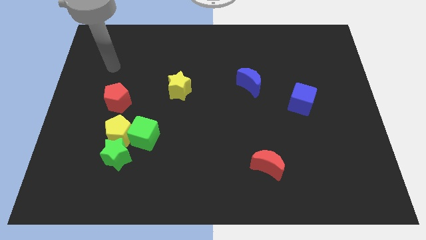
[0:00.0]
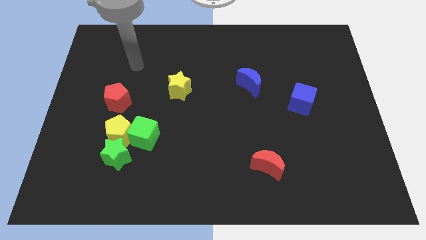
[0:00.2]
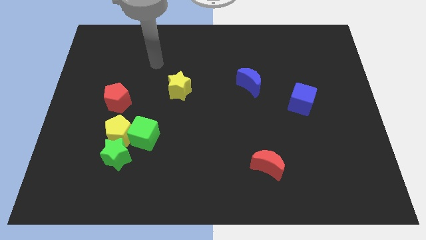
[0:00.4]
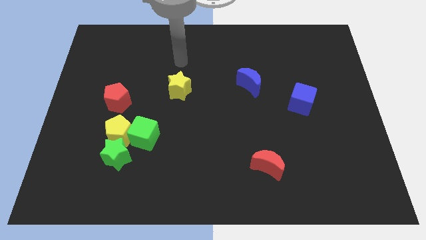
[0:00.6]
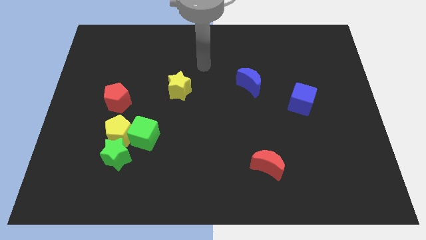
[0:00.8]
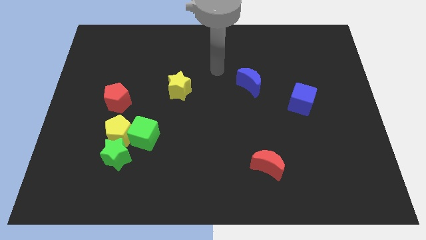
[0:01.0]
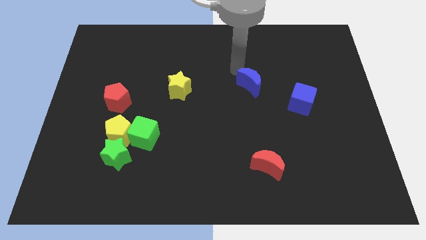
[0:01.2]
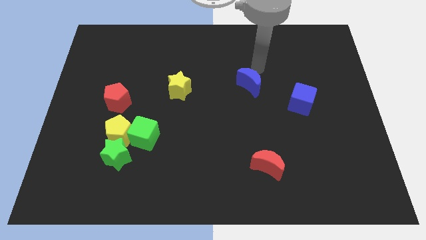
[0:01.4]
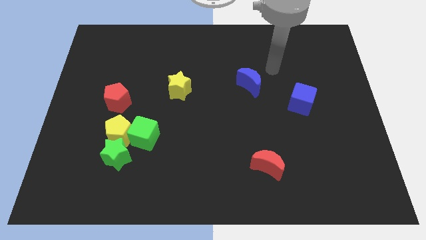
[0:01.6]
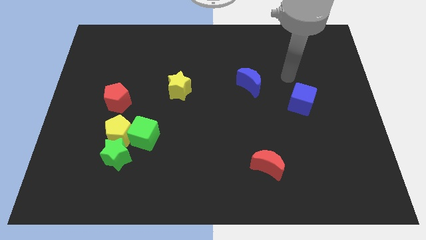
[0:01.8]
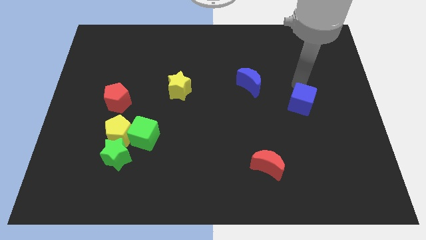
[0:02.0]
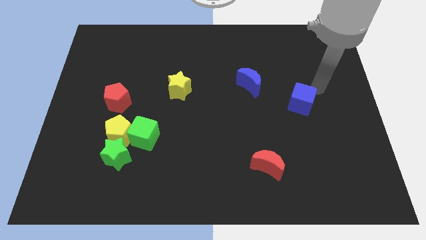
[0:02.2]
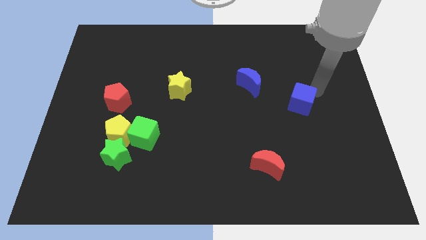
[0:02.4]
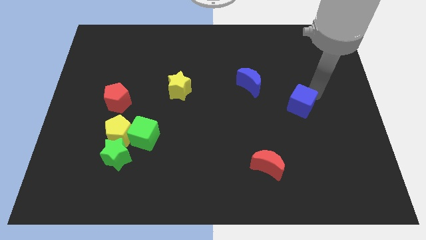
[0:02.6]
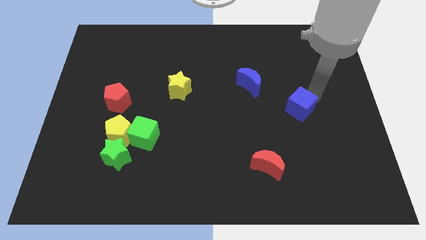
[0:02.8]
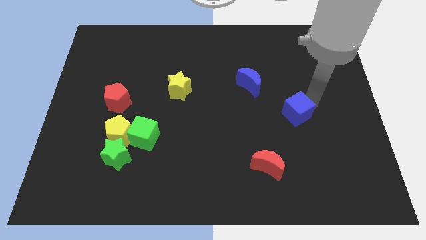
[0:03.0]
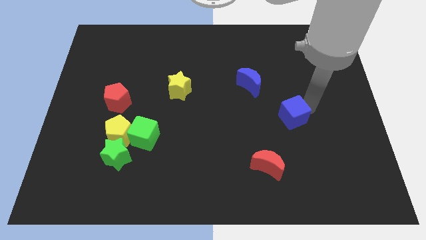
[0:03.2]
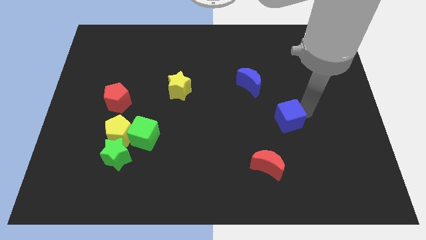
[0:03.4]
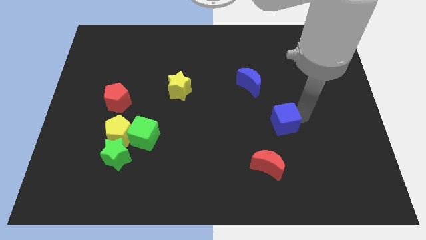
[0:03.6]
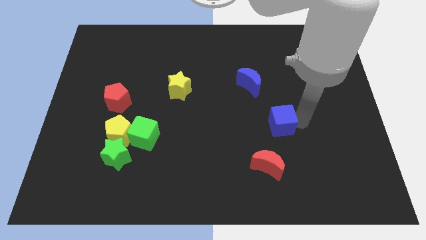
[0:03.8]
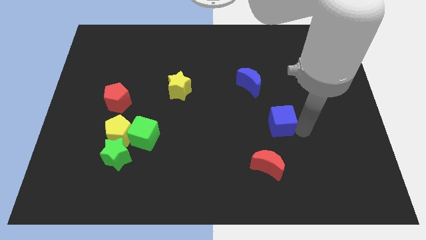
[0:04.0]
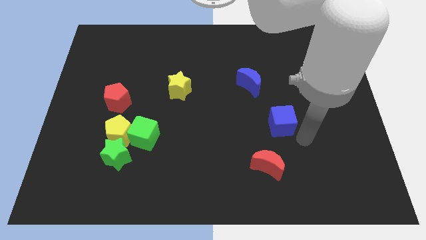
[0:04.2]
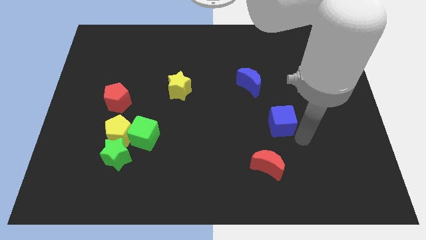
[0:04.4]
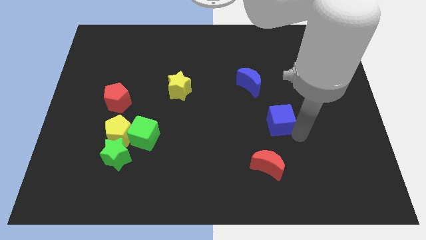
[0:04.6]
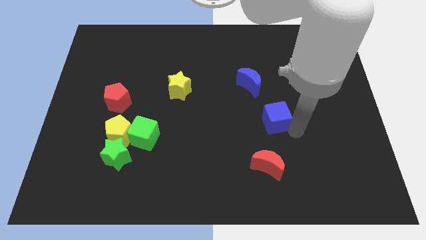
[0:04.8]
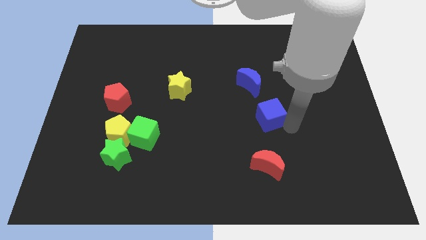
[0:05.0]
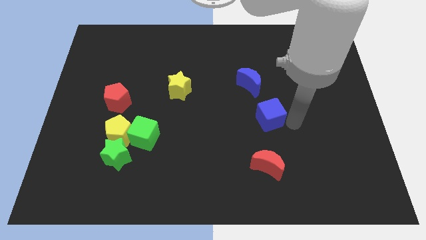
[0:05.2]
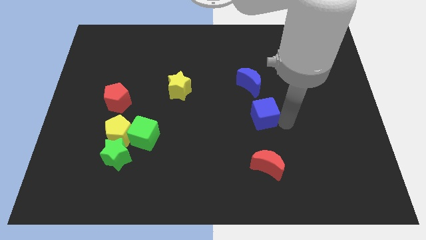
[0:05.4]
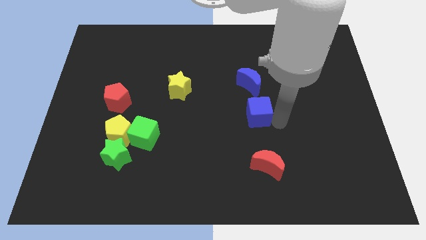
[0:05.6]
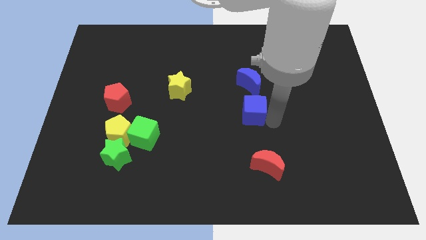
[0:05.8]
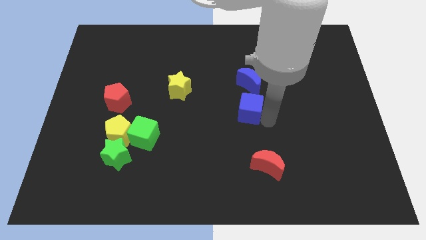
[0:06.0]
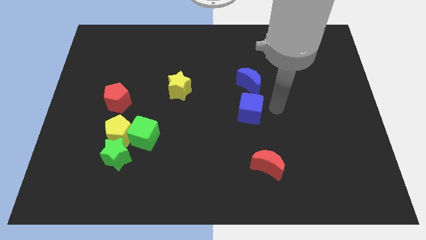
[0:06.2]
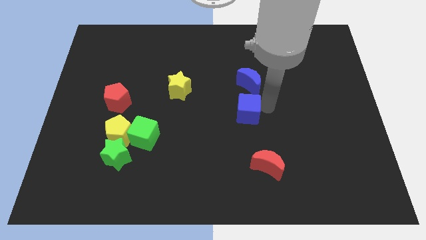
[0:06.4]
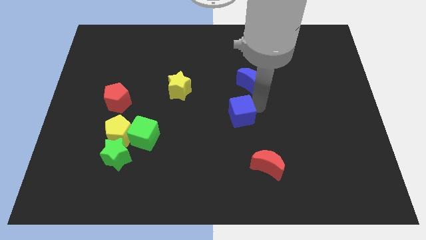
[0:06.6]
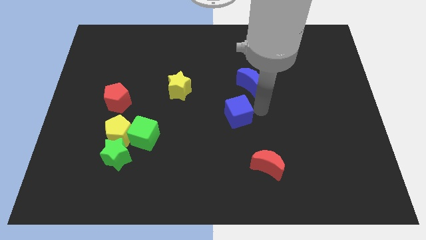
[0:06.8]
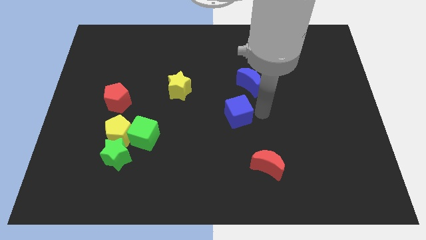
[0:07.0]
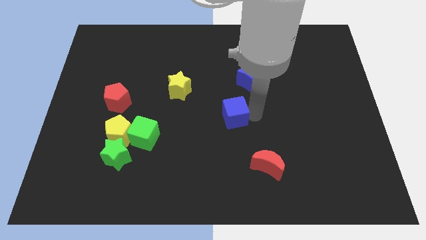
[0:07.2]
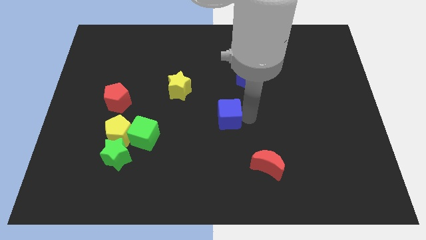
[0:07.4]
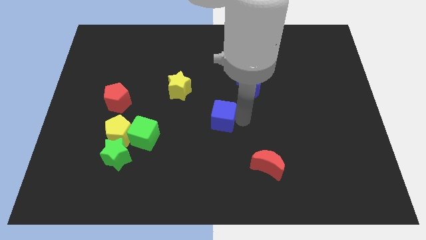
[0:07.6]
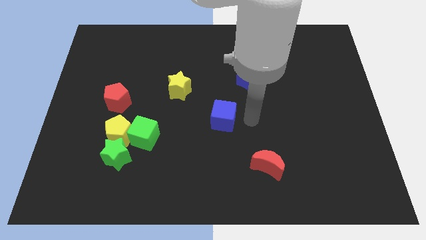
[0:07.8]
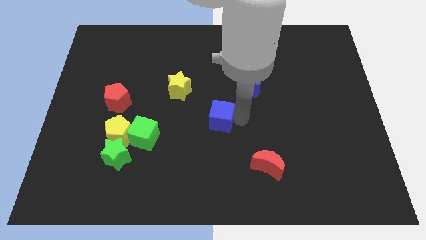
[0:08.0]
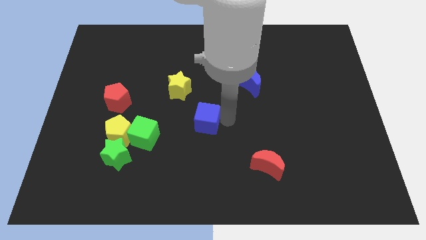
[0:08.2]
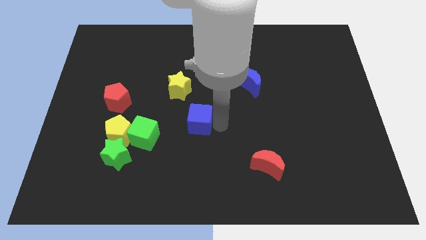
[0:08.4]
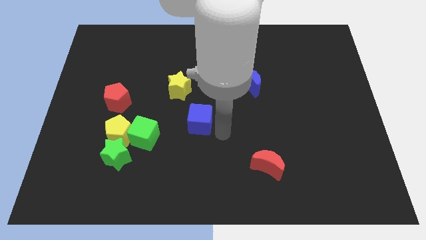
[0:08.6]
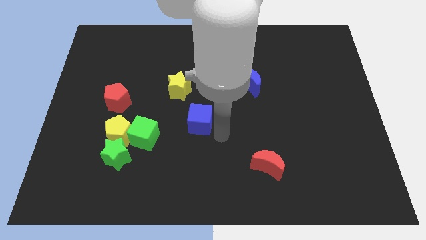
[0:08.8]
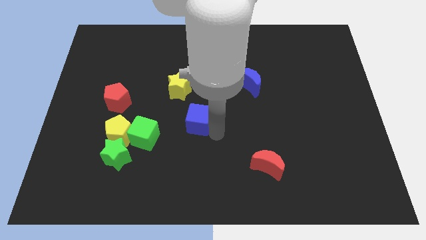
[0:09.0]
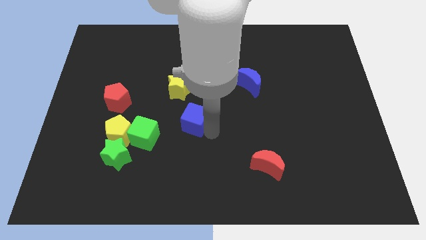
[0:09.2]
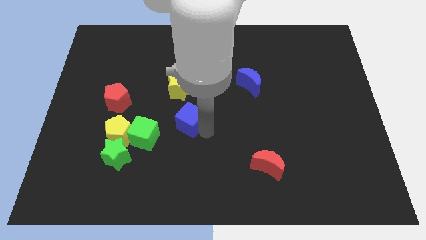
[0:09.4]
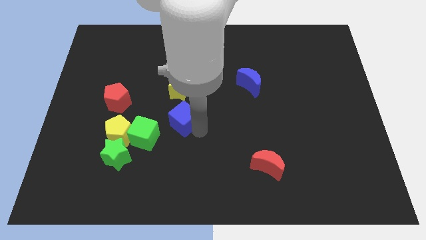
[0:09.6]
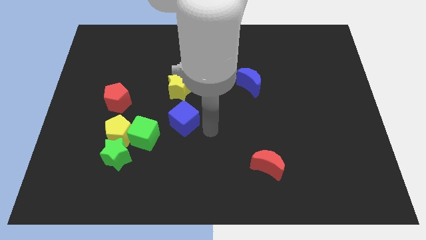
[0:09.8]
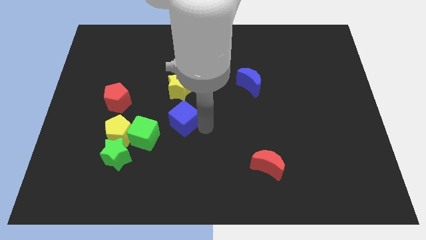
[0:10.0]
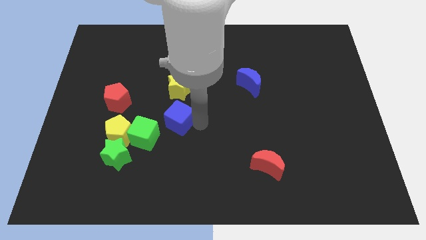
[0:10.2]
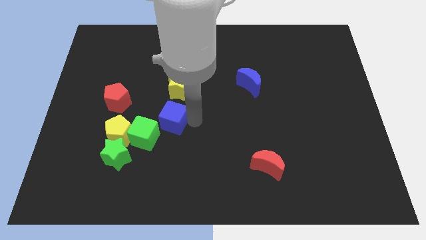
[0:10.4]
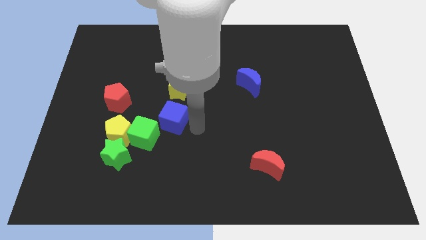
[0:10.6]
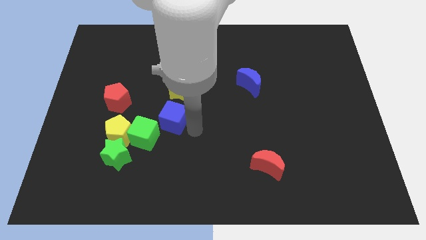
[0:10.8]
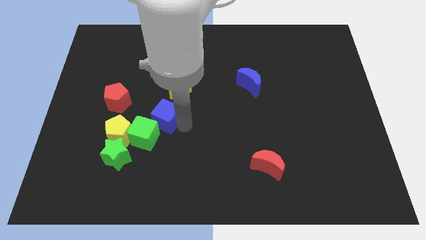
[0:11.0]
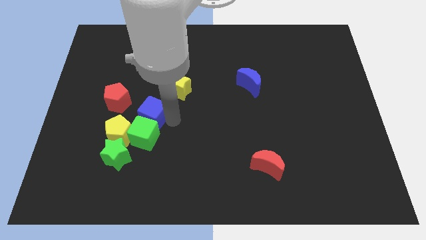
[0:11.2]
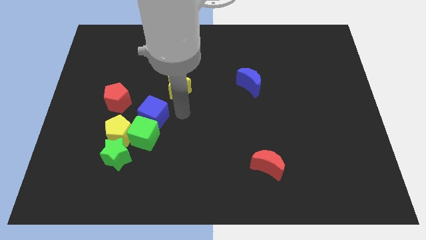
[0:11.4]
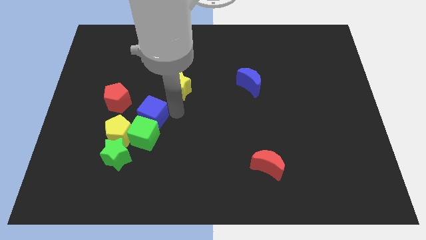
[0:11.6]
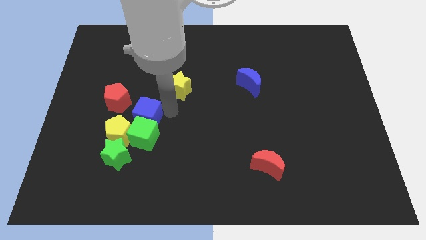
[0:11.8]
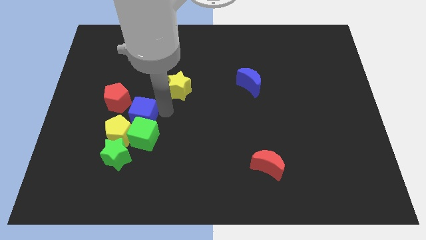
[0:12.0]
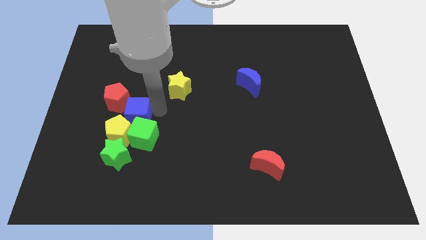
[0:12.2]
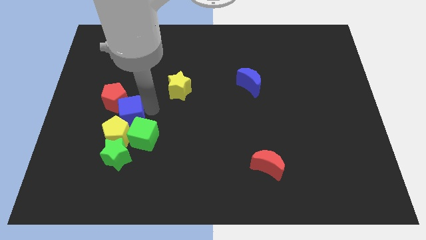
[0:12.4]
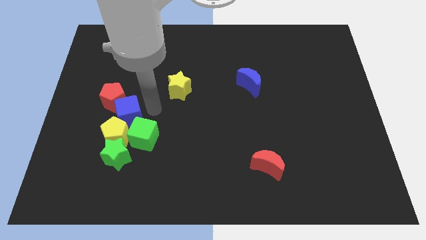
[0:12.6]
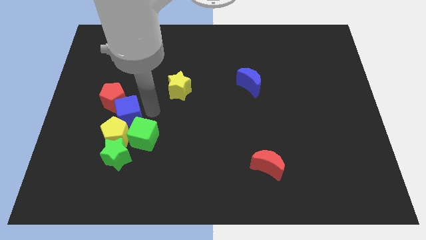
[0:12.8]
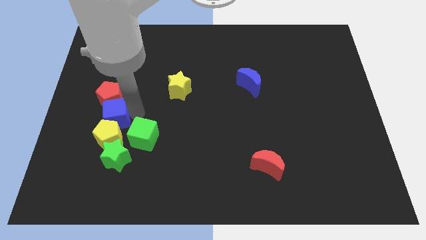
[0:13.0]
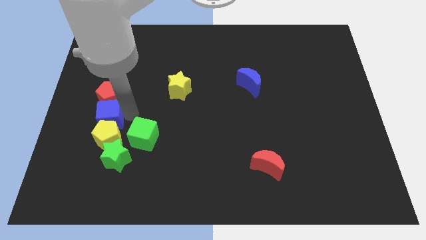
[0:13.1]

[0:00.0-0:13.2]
push the blue cube to the left side of the green cube
